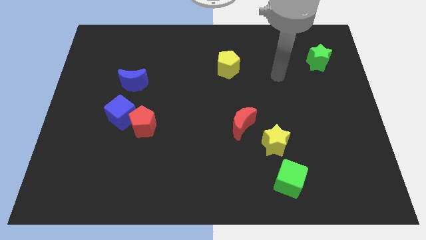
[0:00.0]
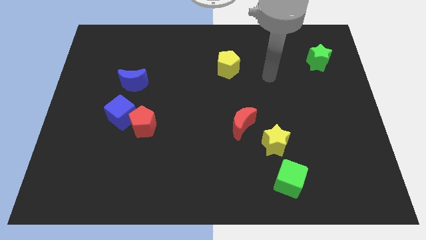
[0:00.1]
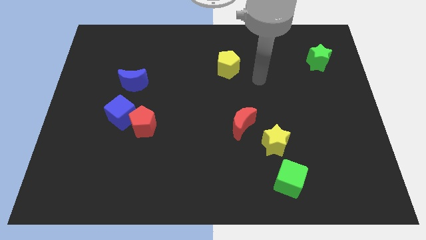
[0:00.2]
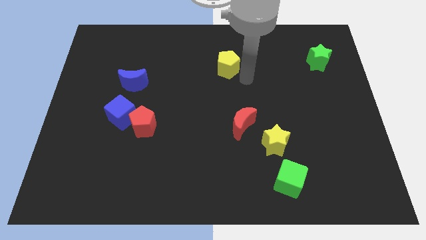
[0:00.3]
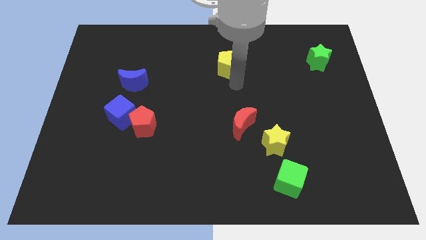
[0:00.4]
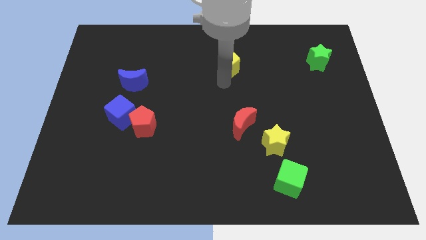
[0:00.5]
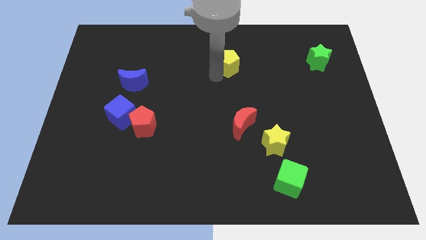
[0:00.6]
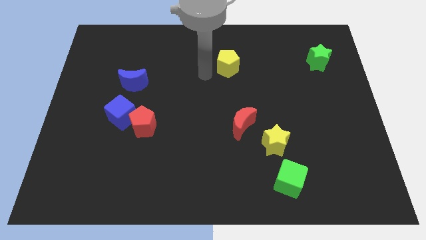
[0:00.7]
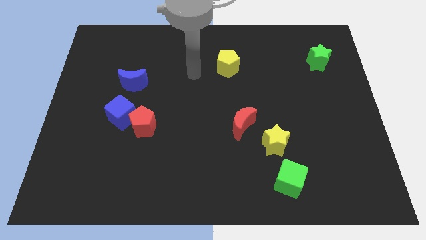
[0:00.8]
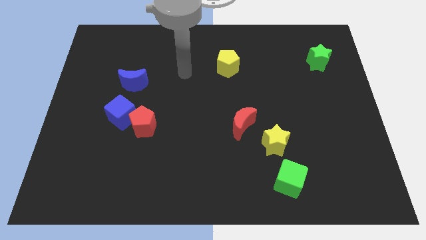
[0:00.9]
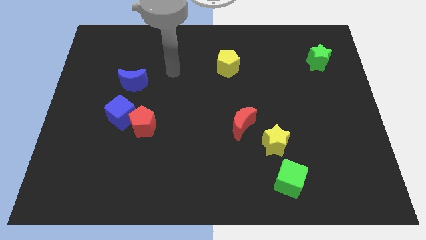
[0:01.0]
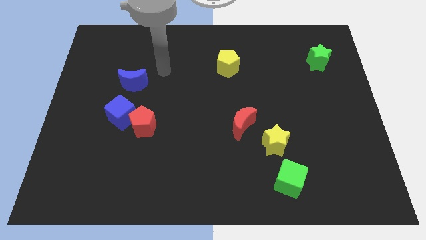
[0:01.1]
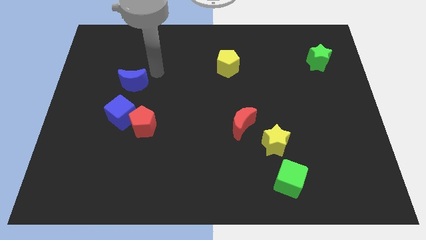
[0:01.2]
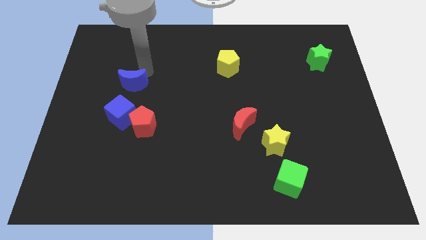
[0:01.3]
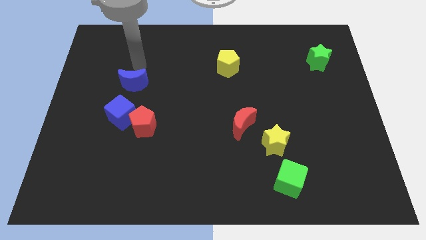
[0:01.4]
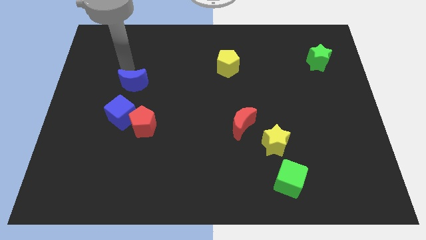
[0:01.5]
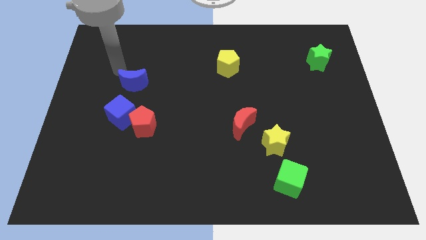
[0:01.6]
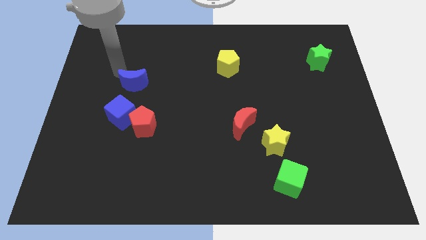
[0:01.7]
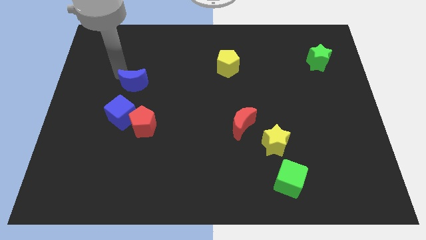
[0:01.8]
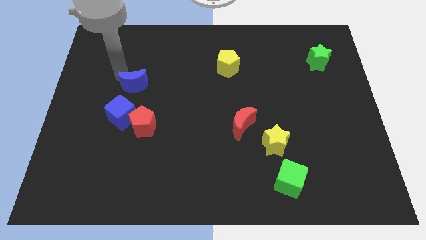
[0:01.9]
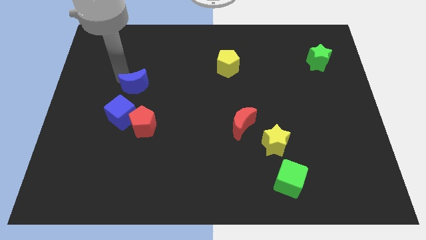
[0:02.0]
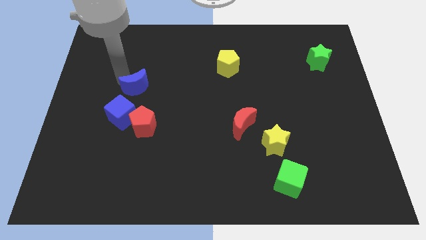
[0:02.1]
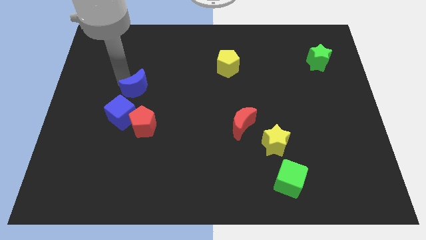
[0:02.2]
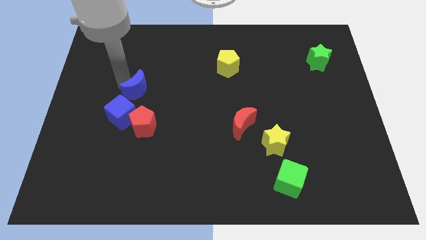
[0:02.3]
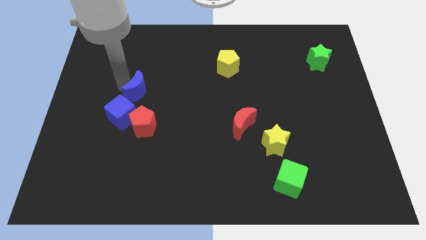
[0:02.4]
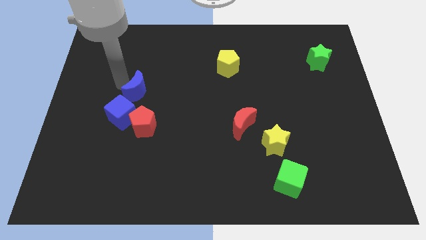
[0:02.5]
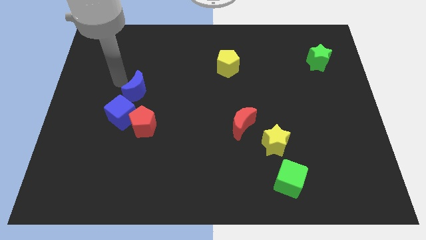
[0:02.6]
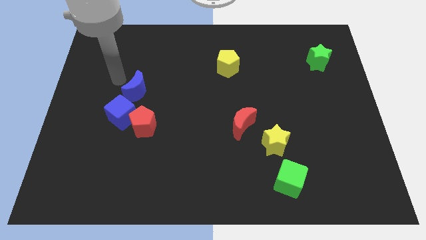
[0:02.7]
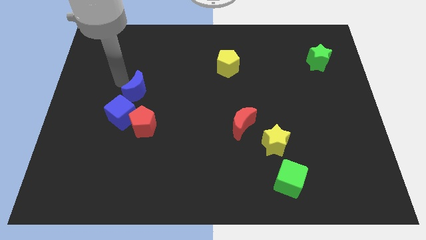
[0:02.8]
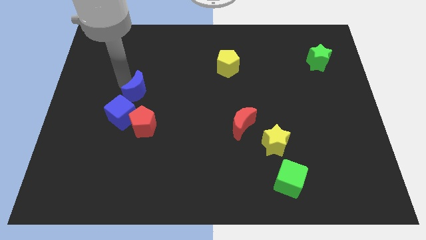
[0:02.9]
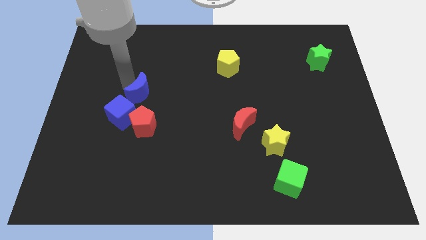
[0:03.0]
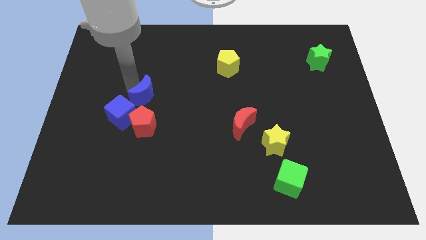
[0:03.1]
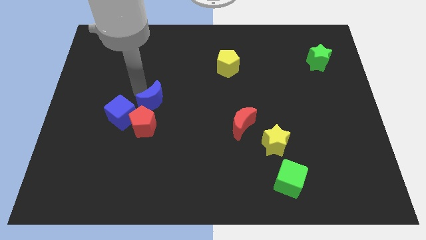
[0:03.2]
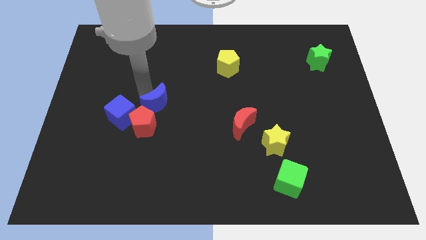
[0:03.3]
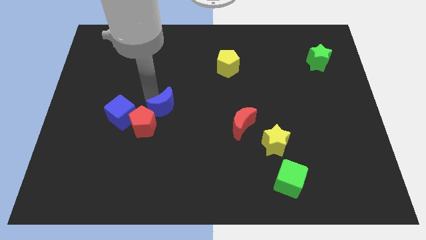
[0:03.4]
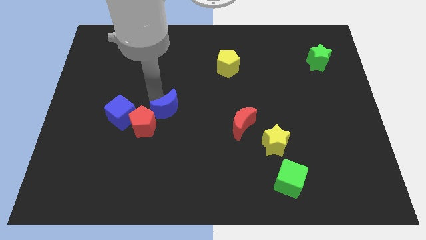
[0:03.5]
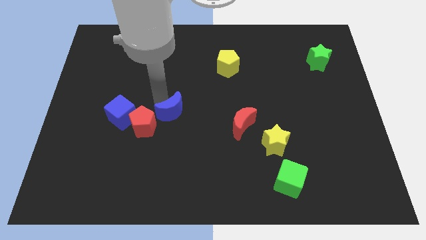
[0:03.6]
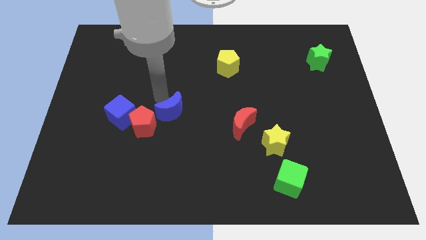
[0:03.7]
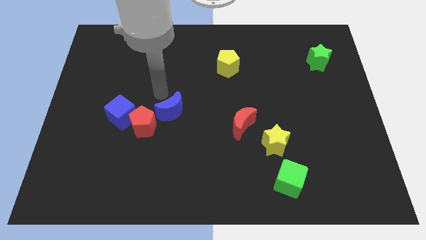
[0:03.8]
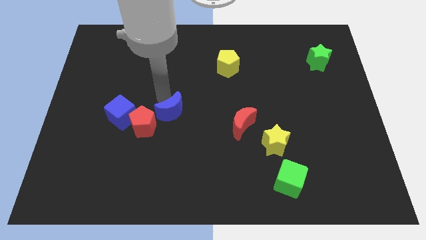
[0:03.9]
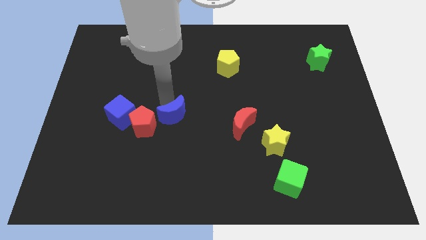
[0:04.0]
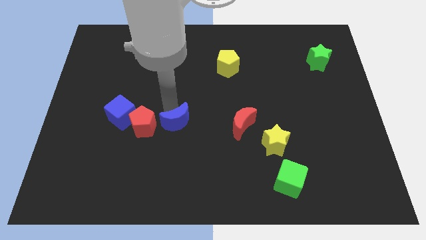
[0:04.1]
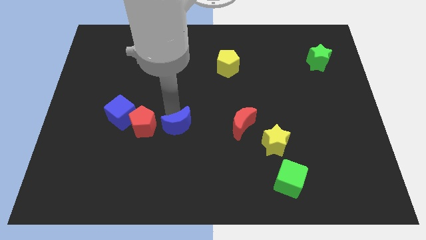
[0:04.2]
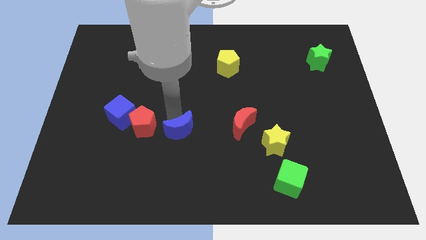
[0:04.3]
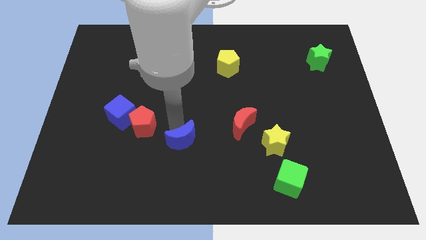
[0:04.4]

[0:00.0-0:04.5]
move the blue moon diagonally downwards and to the right

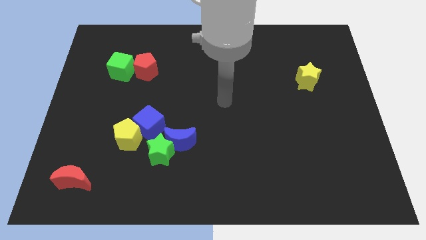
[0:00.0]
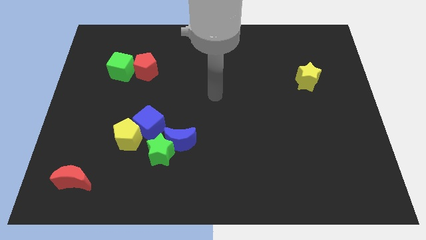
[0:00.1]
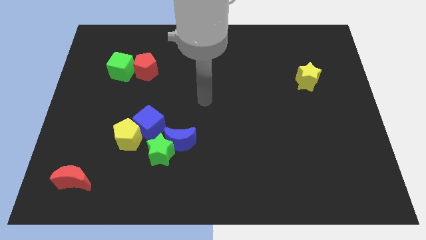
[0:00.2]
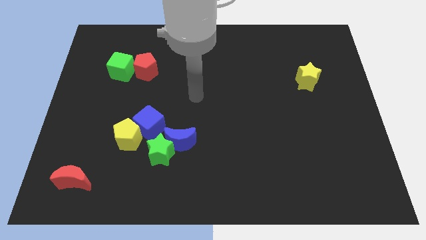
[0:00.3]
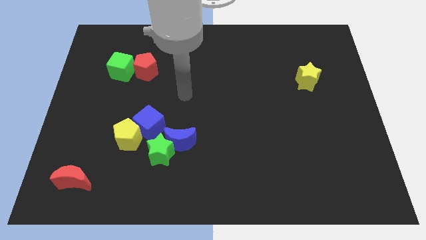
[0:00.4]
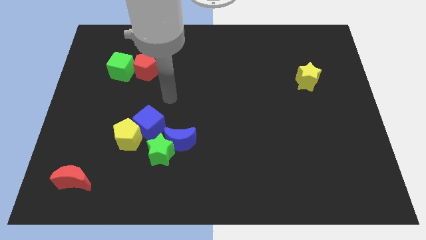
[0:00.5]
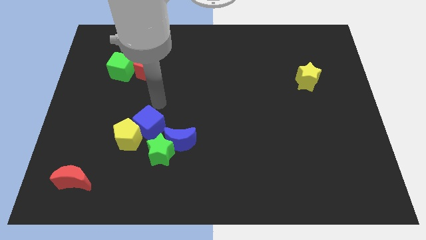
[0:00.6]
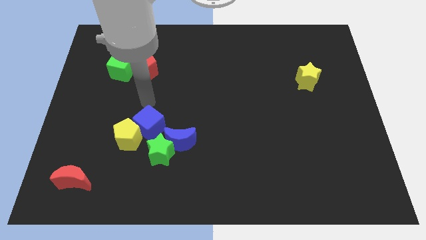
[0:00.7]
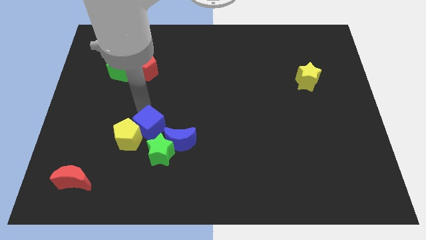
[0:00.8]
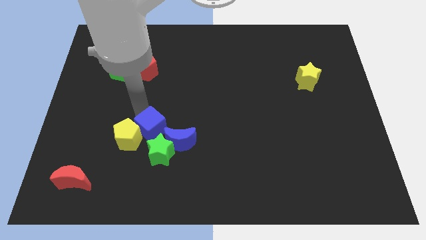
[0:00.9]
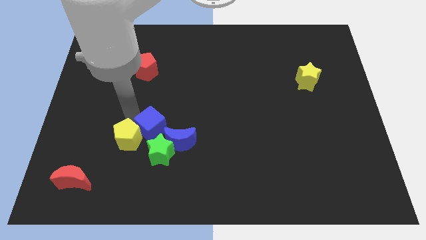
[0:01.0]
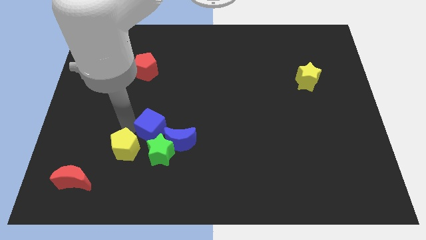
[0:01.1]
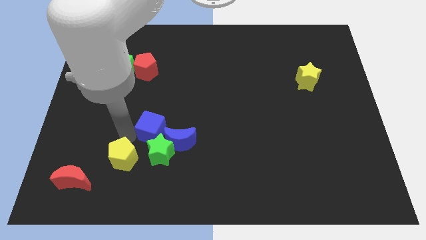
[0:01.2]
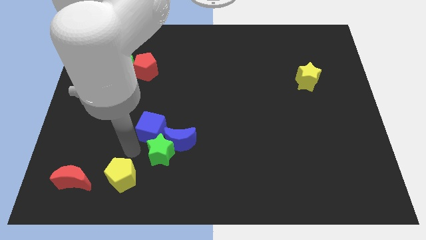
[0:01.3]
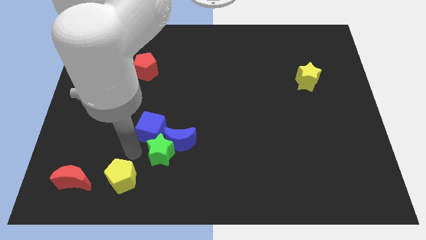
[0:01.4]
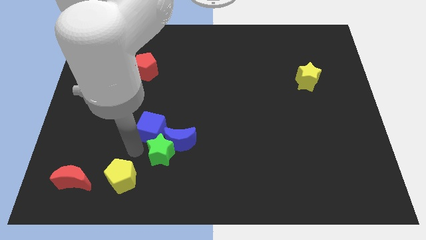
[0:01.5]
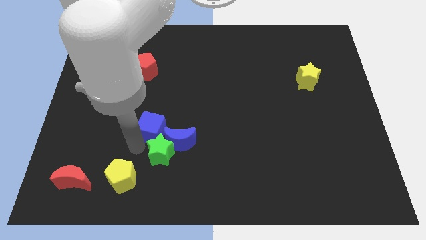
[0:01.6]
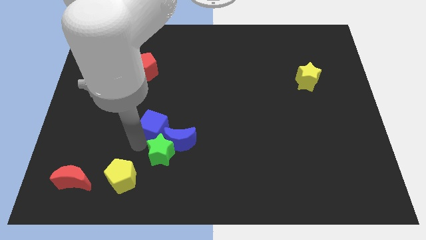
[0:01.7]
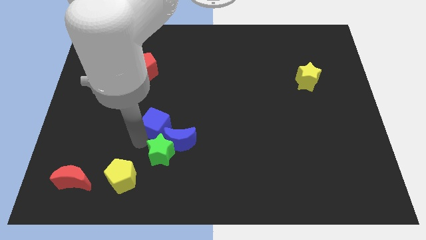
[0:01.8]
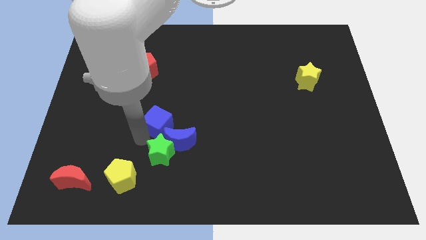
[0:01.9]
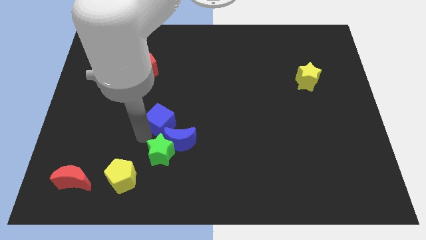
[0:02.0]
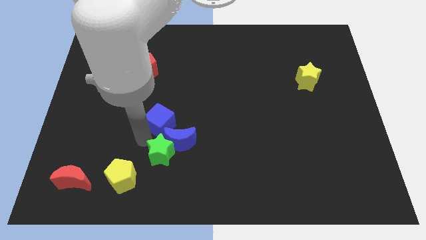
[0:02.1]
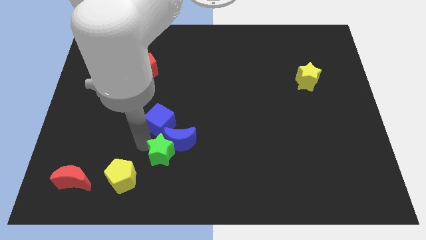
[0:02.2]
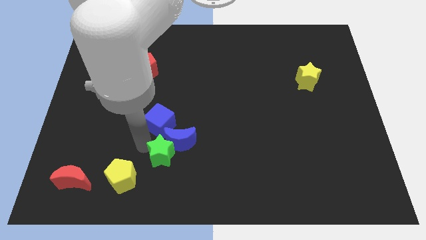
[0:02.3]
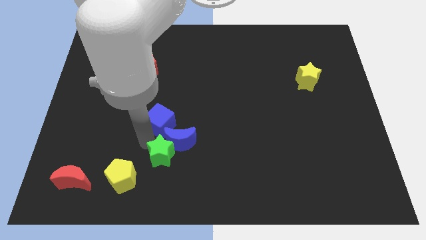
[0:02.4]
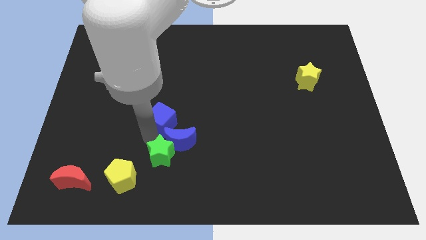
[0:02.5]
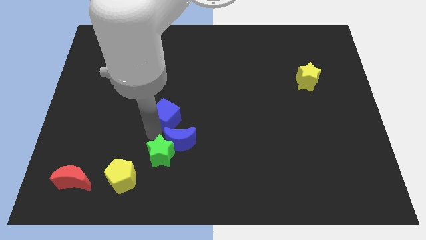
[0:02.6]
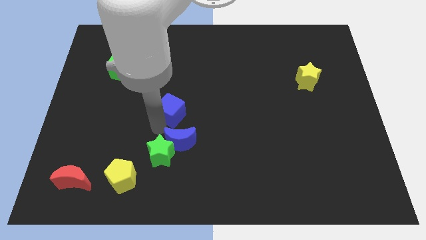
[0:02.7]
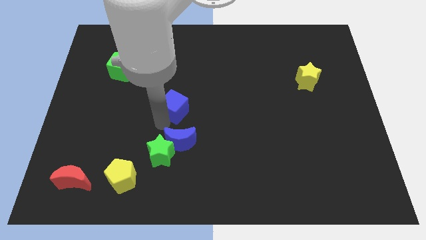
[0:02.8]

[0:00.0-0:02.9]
slightly move the blue cube up and then right

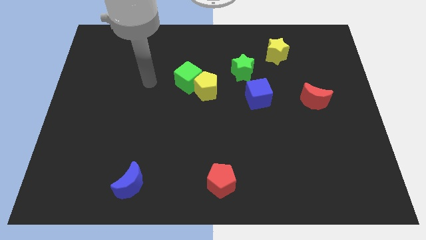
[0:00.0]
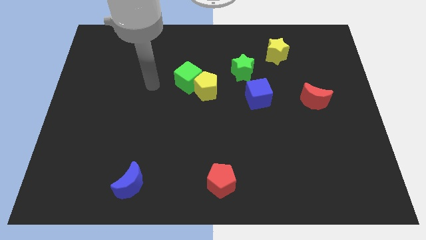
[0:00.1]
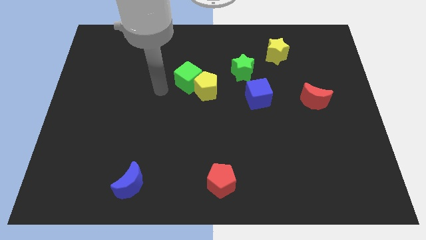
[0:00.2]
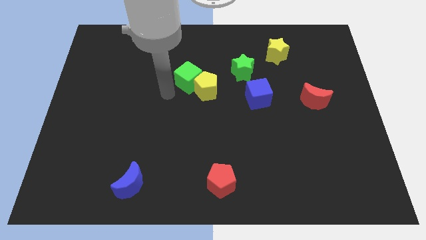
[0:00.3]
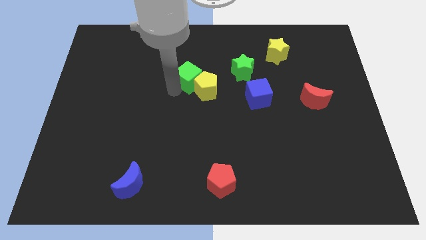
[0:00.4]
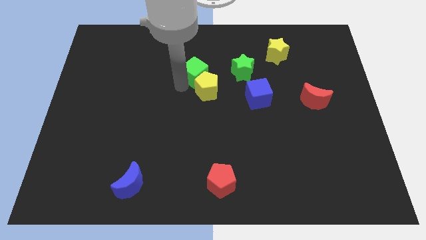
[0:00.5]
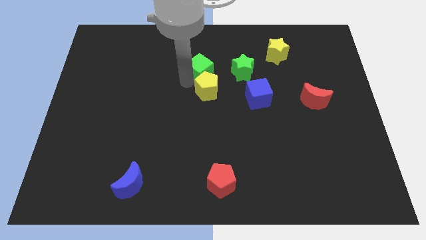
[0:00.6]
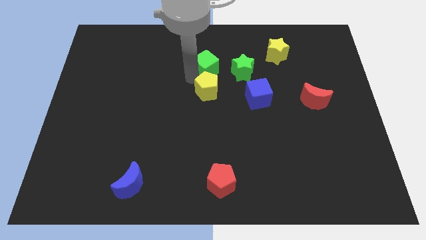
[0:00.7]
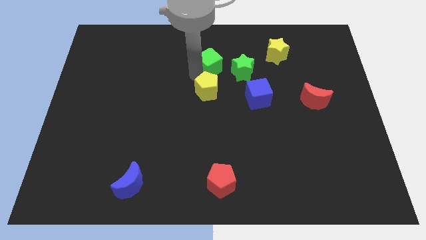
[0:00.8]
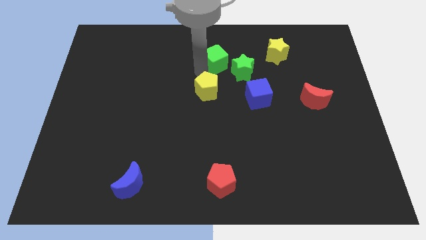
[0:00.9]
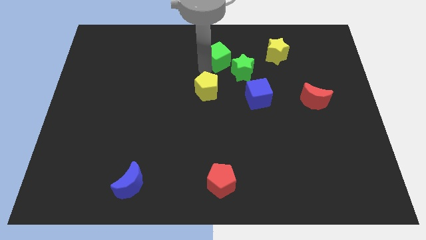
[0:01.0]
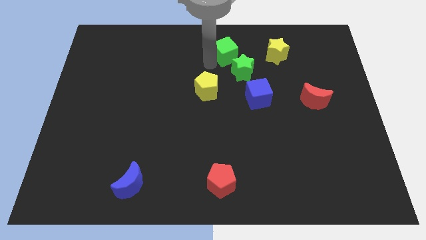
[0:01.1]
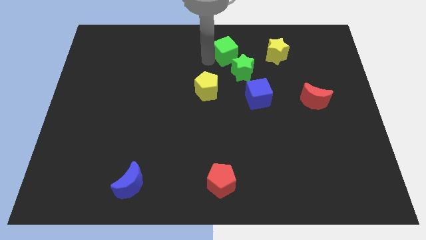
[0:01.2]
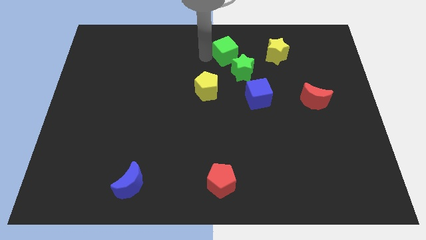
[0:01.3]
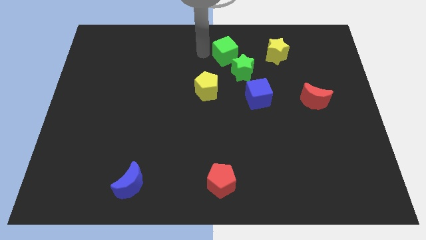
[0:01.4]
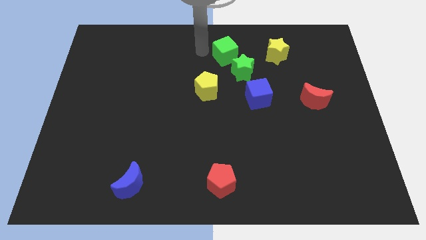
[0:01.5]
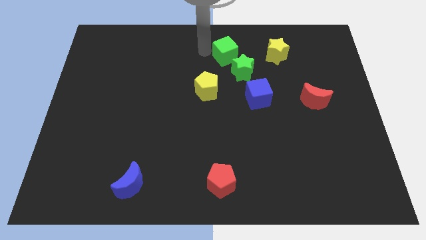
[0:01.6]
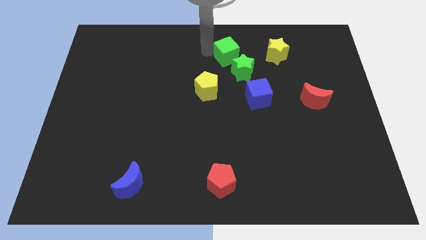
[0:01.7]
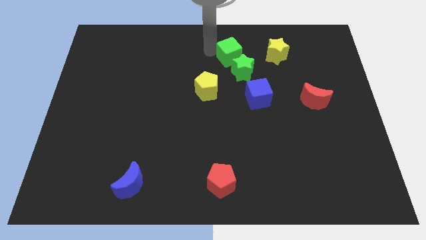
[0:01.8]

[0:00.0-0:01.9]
slightly move the green cube to the right
